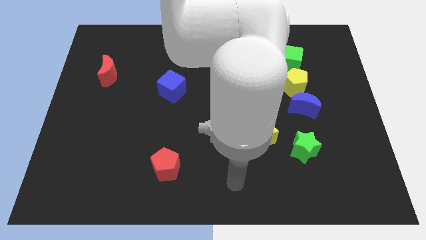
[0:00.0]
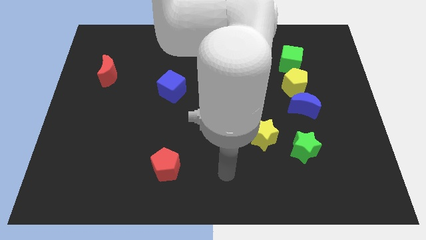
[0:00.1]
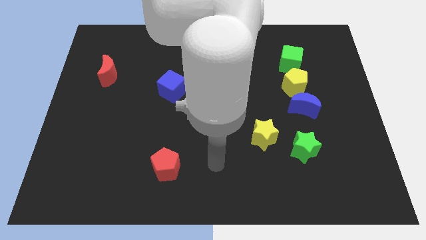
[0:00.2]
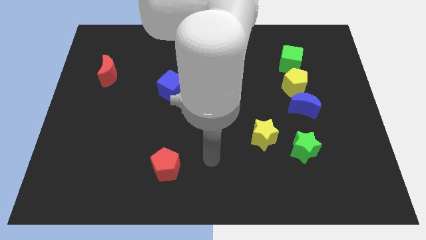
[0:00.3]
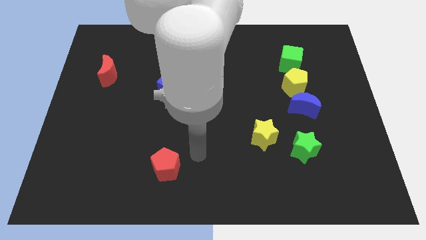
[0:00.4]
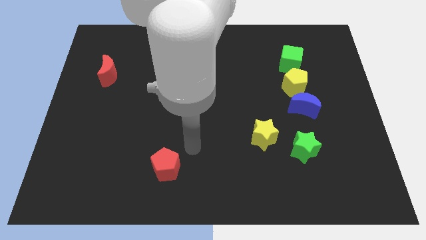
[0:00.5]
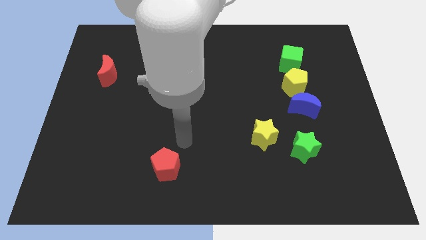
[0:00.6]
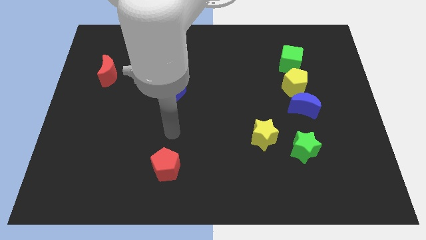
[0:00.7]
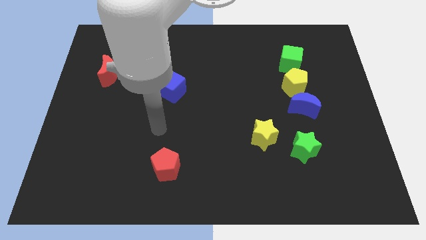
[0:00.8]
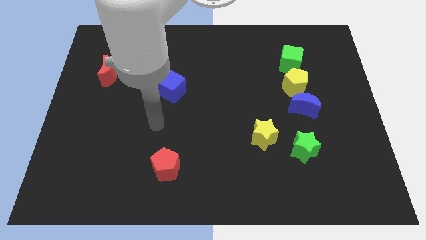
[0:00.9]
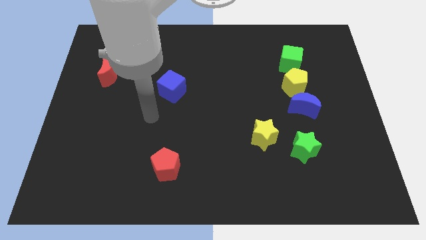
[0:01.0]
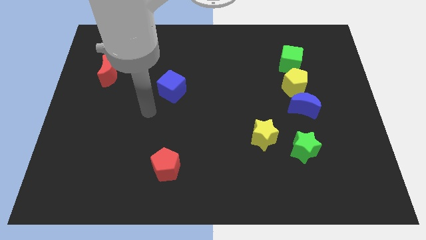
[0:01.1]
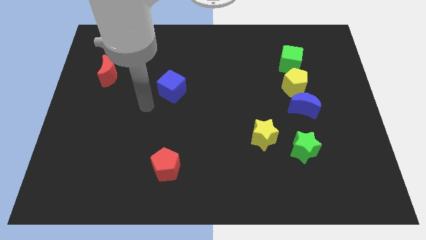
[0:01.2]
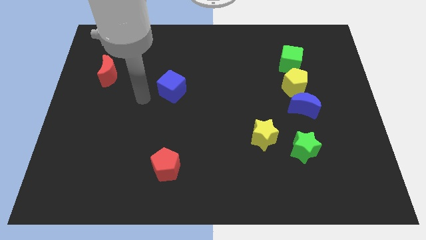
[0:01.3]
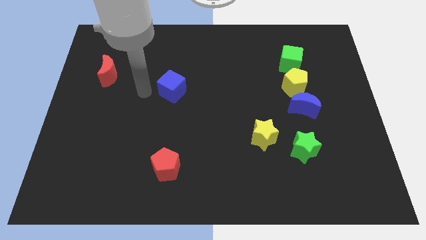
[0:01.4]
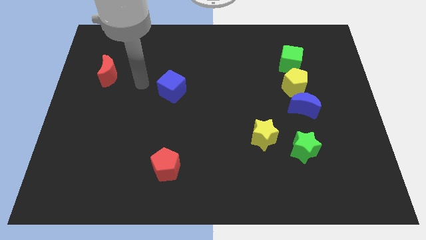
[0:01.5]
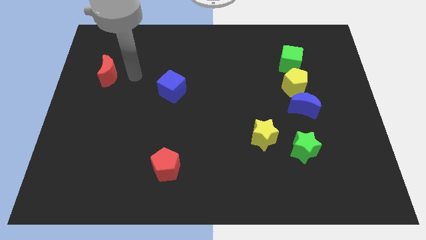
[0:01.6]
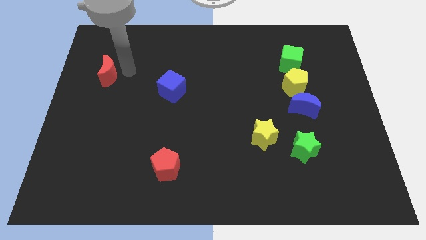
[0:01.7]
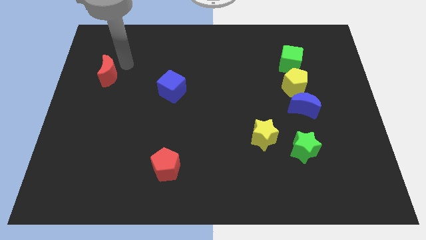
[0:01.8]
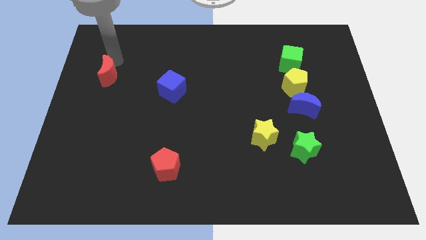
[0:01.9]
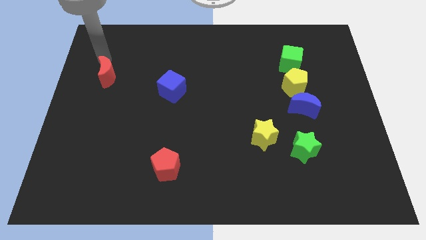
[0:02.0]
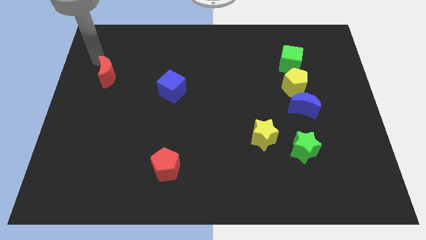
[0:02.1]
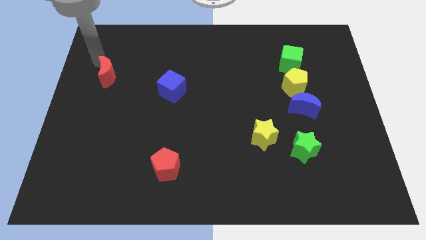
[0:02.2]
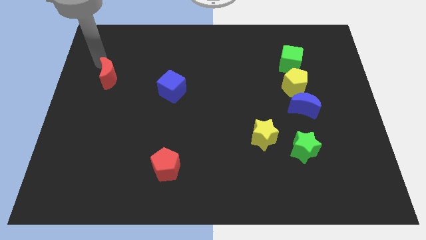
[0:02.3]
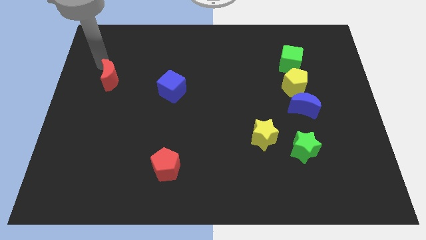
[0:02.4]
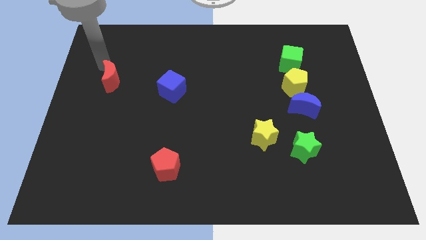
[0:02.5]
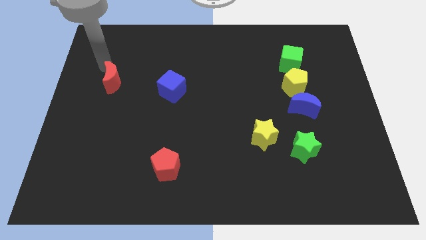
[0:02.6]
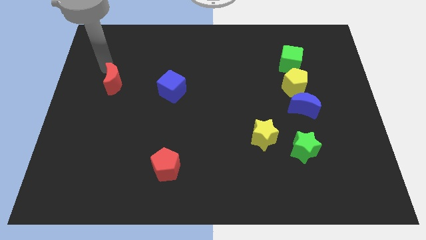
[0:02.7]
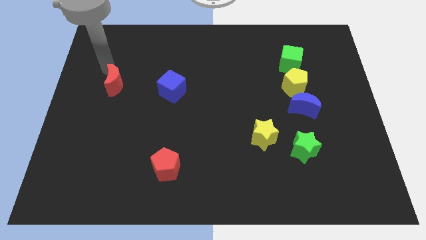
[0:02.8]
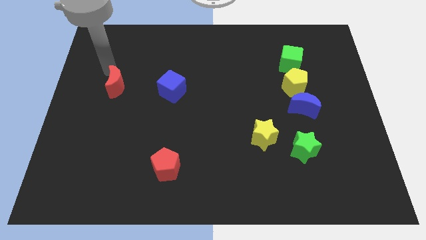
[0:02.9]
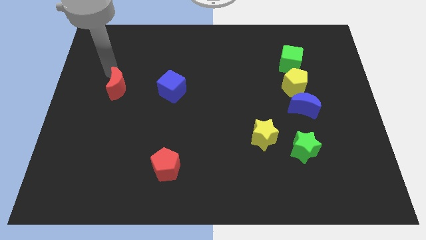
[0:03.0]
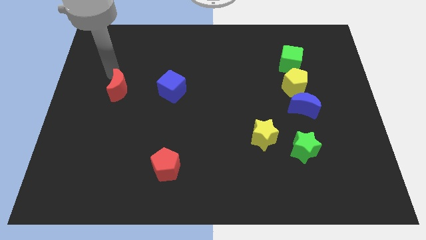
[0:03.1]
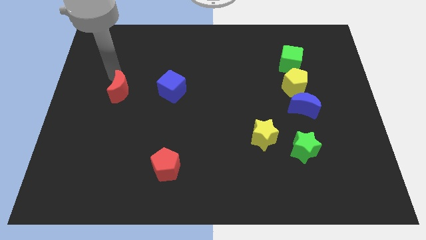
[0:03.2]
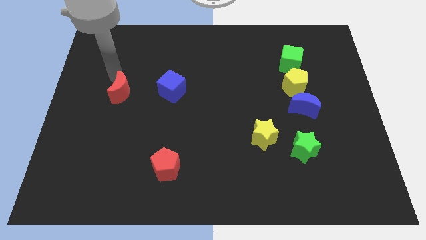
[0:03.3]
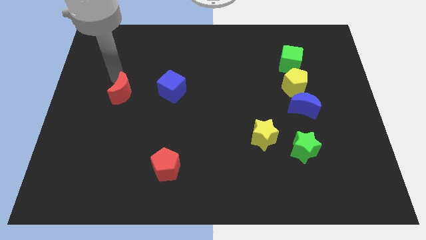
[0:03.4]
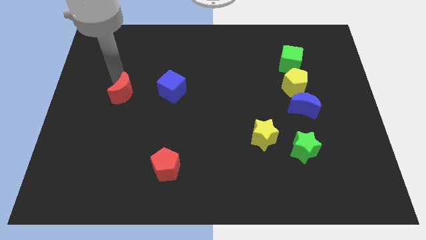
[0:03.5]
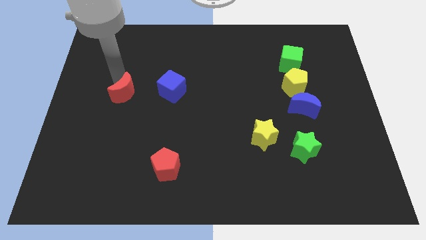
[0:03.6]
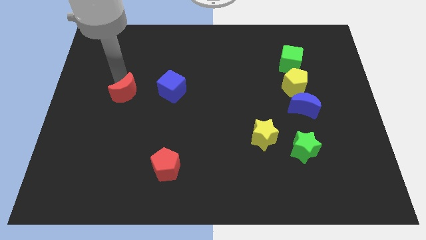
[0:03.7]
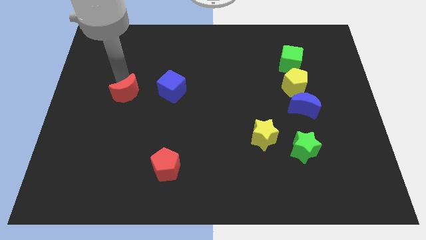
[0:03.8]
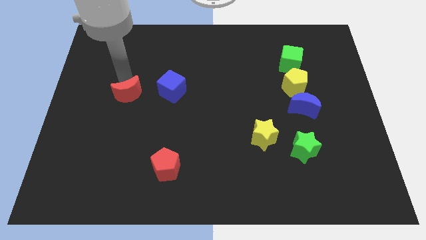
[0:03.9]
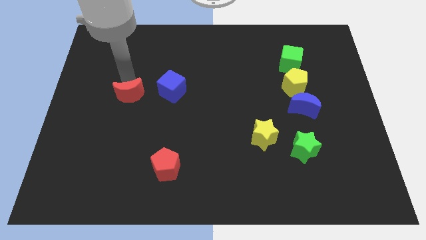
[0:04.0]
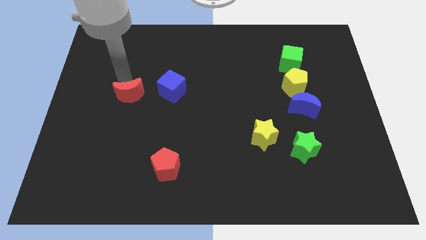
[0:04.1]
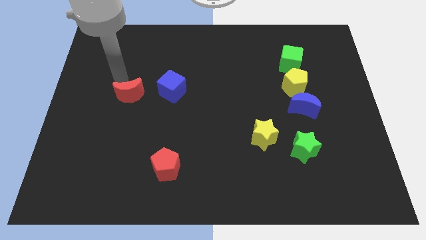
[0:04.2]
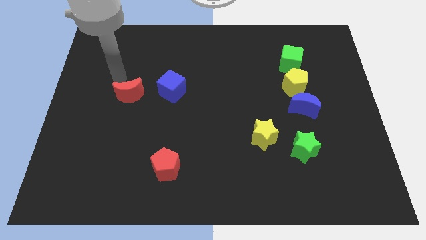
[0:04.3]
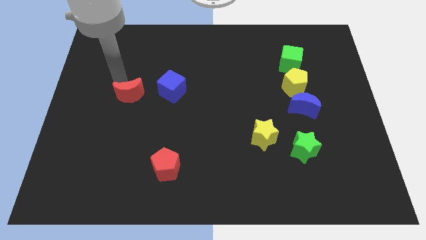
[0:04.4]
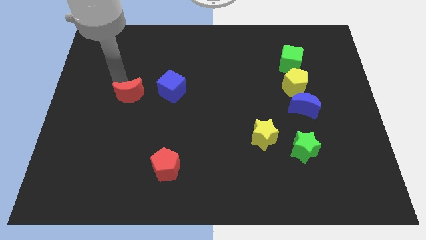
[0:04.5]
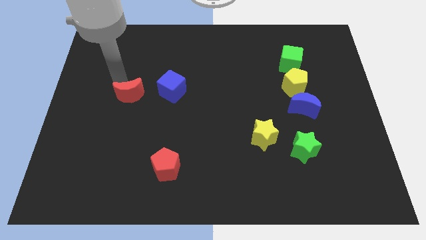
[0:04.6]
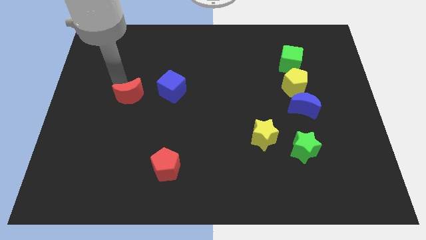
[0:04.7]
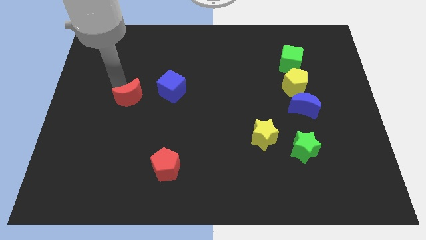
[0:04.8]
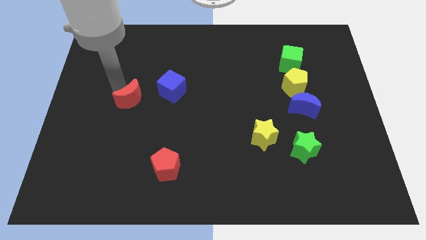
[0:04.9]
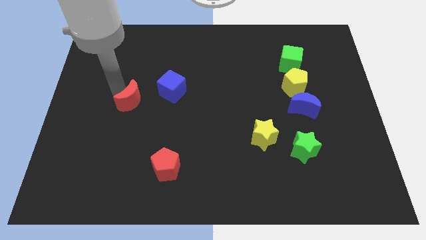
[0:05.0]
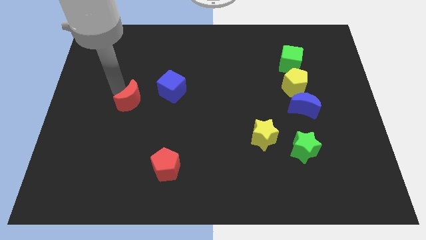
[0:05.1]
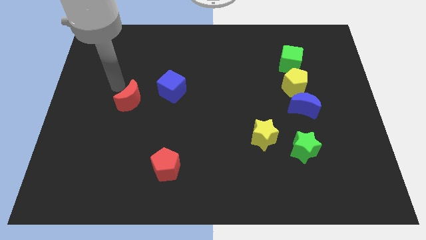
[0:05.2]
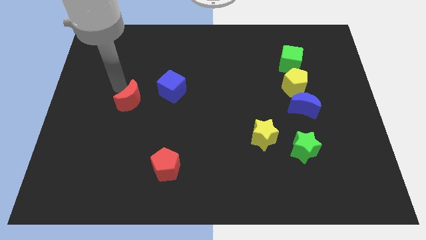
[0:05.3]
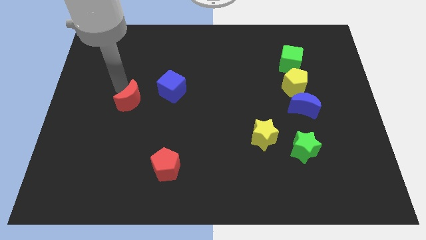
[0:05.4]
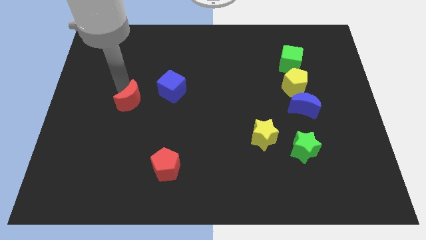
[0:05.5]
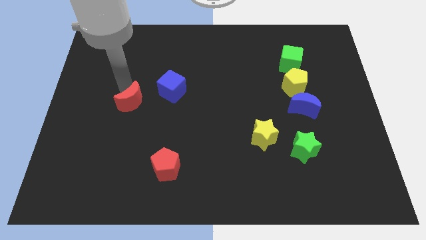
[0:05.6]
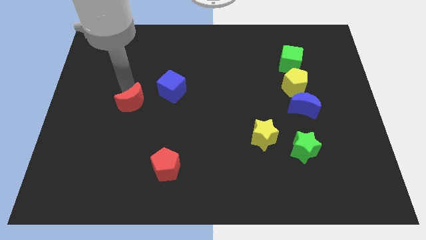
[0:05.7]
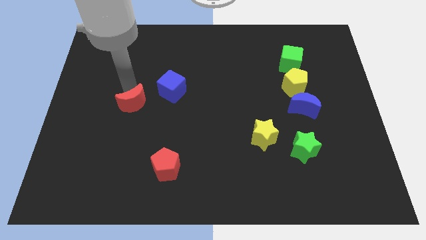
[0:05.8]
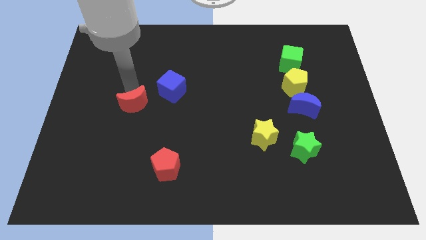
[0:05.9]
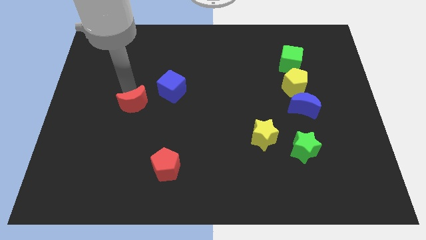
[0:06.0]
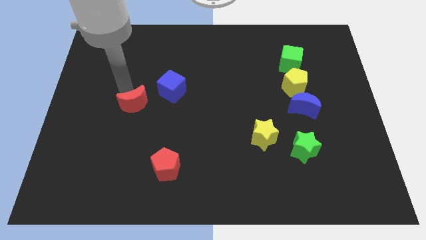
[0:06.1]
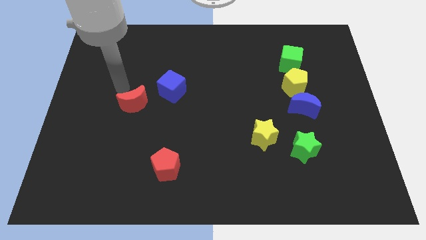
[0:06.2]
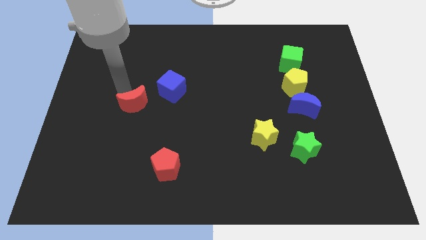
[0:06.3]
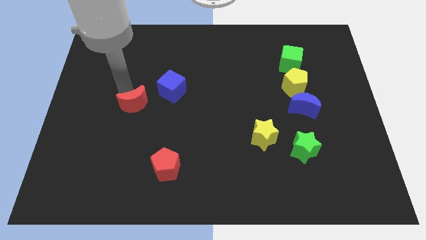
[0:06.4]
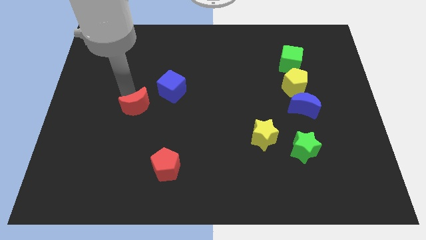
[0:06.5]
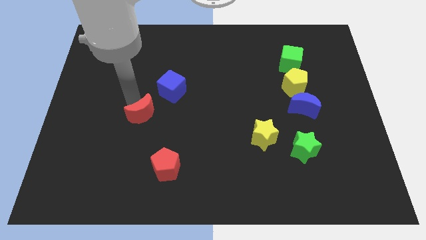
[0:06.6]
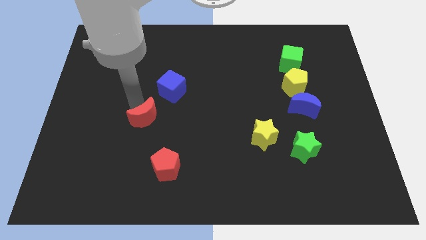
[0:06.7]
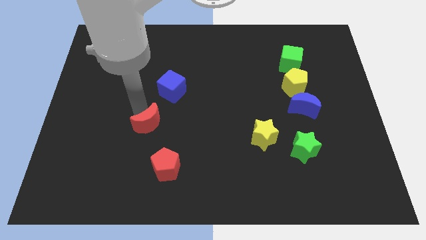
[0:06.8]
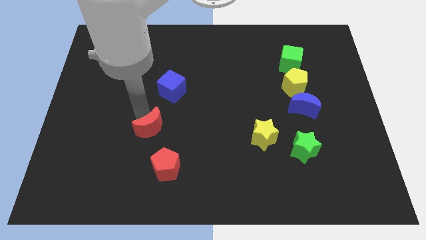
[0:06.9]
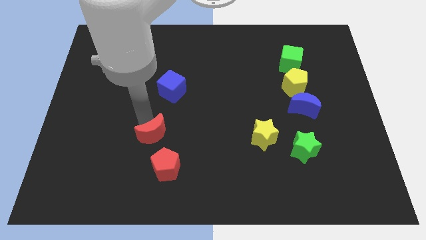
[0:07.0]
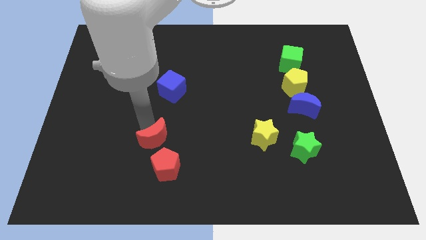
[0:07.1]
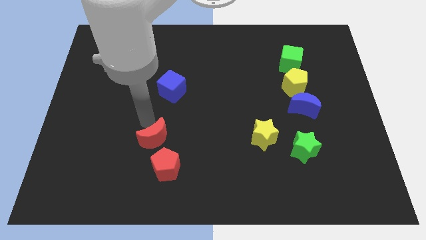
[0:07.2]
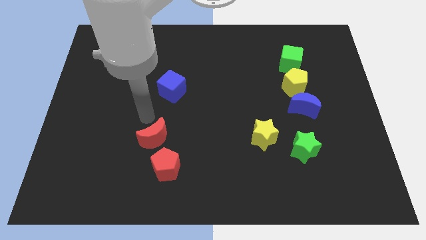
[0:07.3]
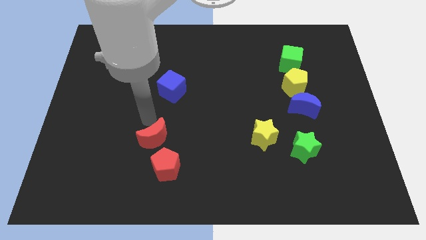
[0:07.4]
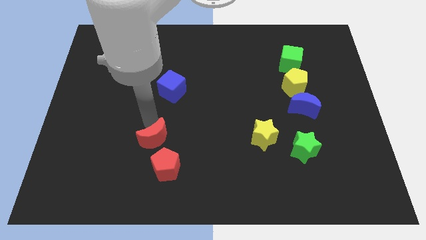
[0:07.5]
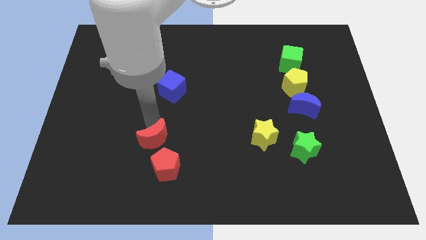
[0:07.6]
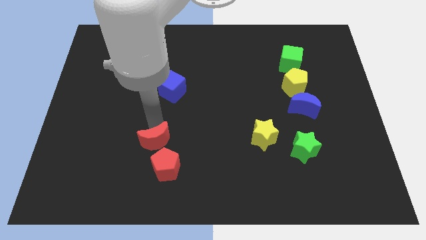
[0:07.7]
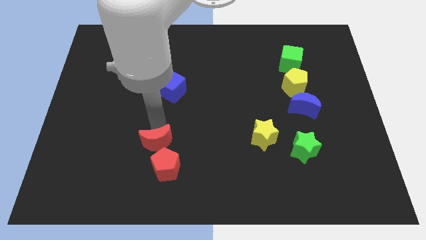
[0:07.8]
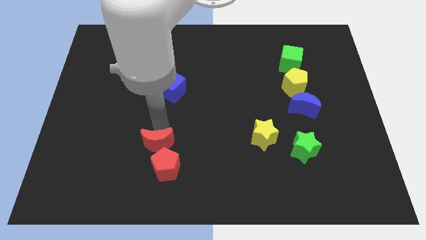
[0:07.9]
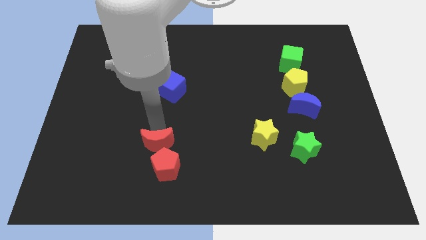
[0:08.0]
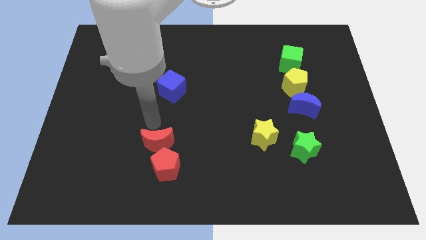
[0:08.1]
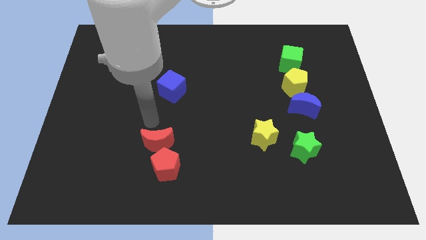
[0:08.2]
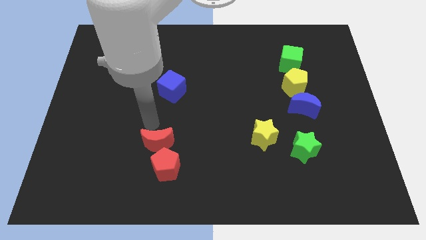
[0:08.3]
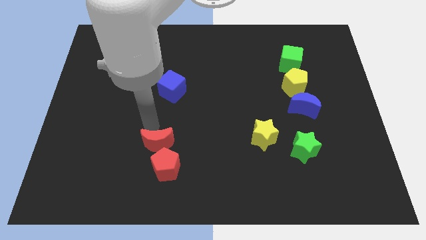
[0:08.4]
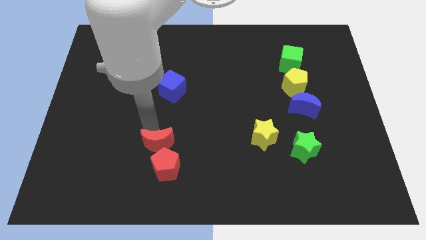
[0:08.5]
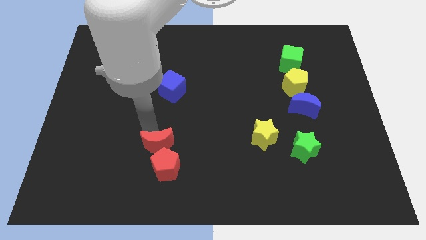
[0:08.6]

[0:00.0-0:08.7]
move the red moon to the red pentagon
